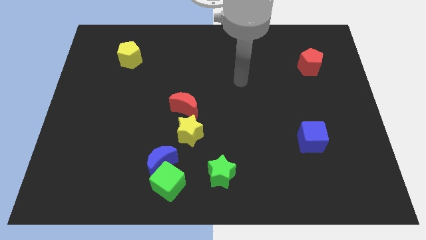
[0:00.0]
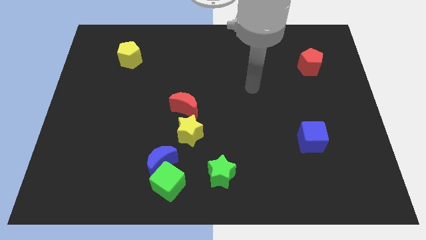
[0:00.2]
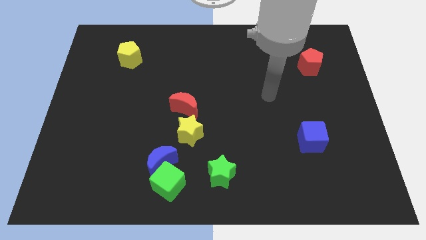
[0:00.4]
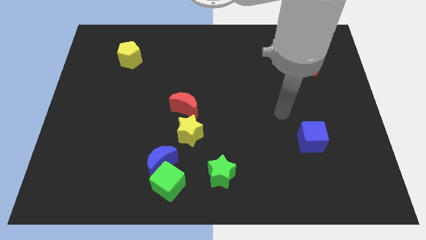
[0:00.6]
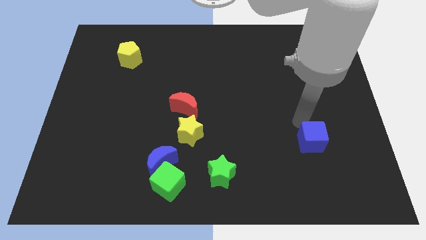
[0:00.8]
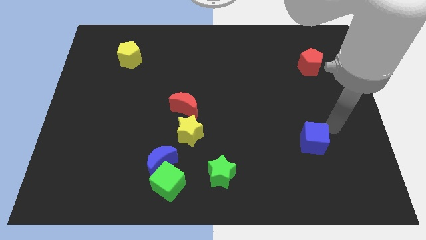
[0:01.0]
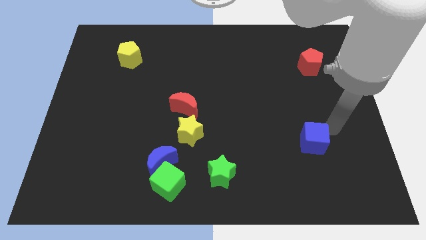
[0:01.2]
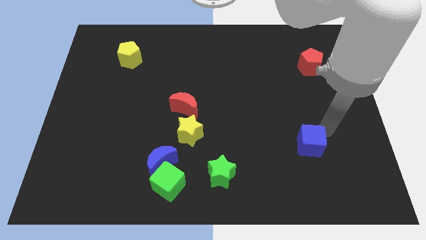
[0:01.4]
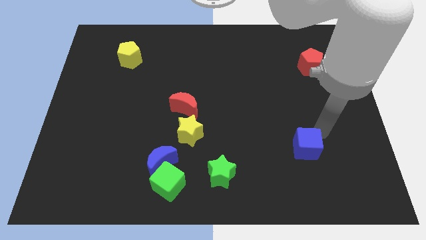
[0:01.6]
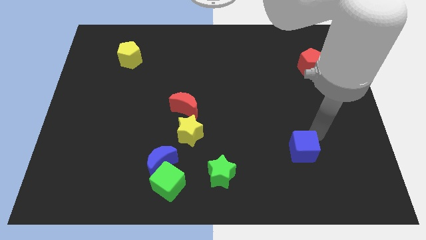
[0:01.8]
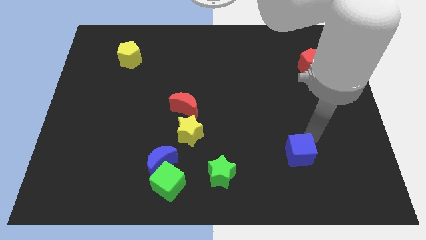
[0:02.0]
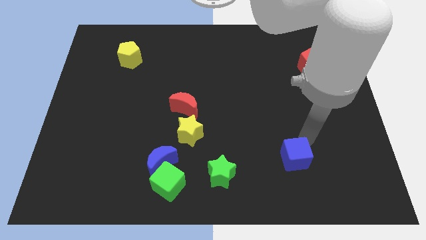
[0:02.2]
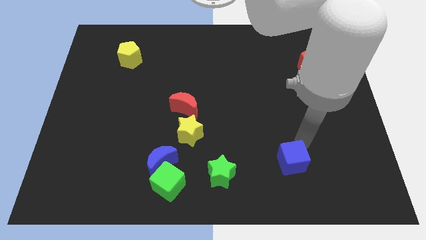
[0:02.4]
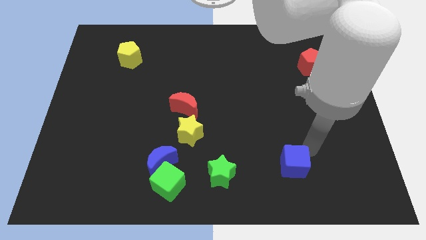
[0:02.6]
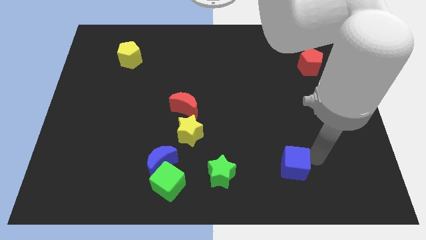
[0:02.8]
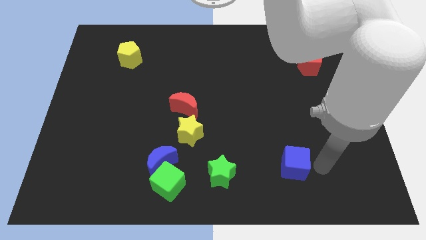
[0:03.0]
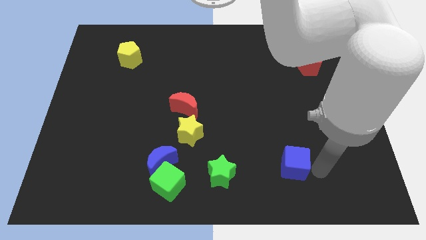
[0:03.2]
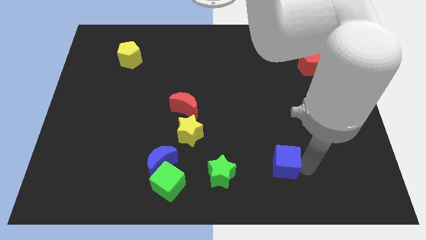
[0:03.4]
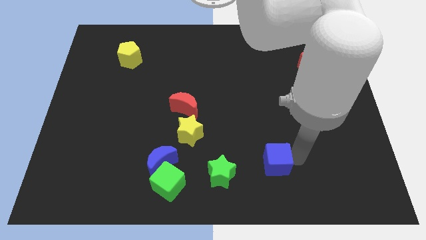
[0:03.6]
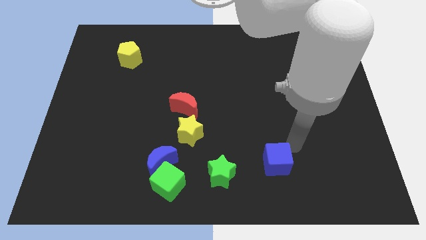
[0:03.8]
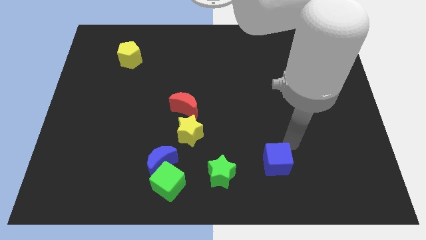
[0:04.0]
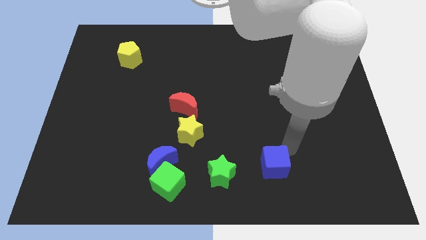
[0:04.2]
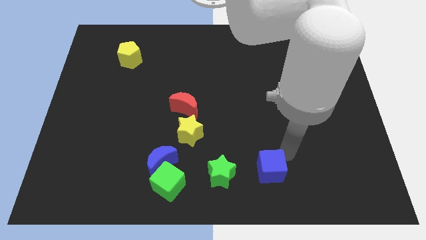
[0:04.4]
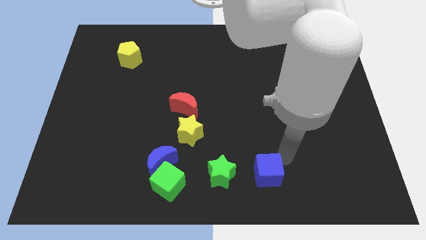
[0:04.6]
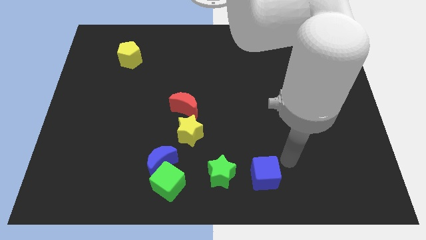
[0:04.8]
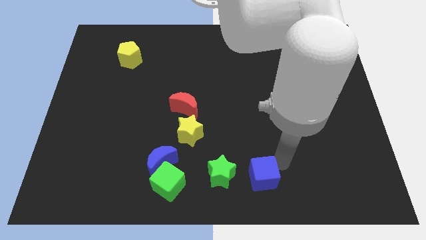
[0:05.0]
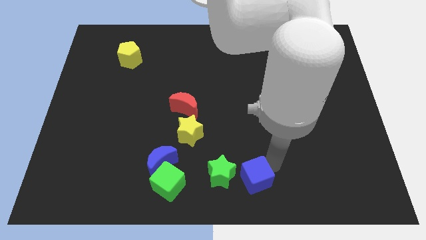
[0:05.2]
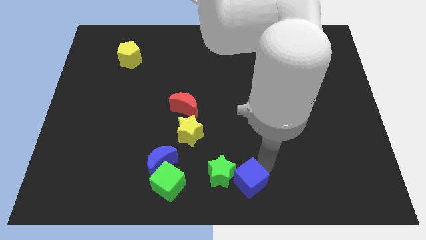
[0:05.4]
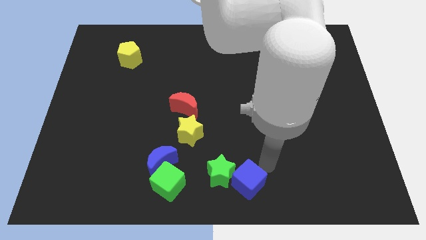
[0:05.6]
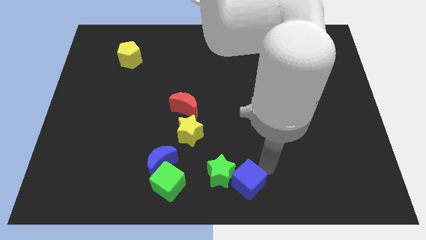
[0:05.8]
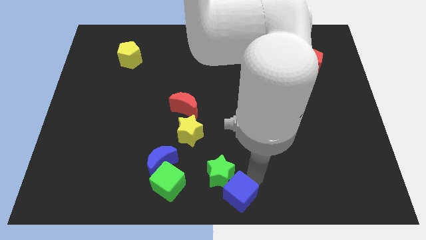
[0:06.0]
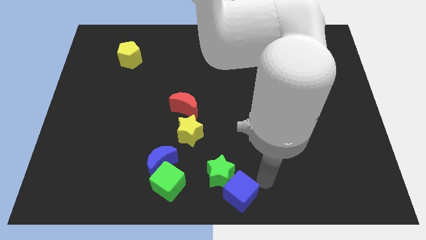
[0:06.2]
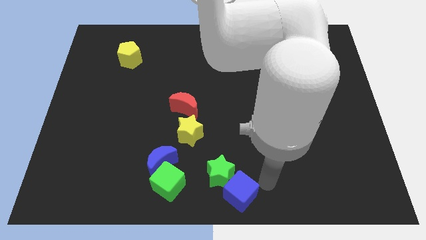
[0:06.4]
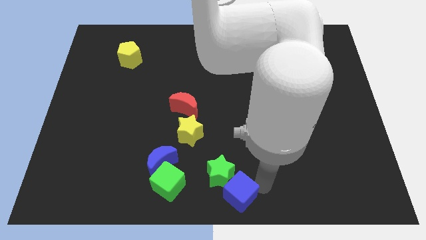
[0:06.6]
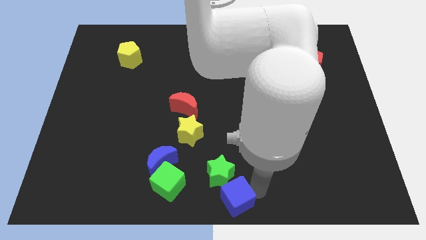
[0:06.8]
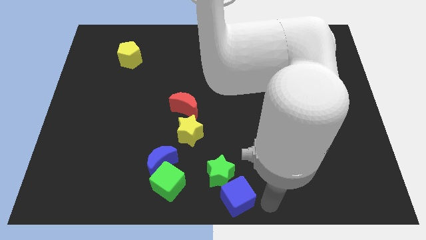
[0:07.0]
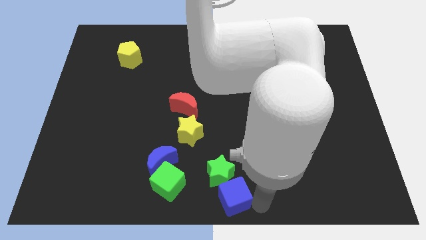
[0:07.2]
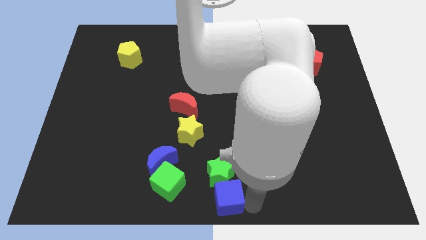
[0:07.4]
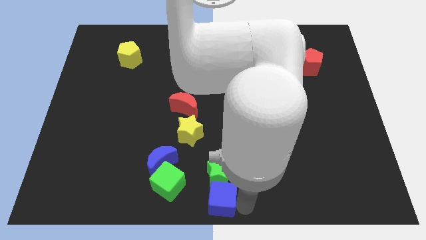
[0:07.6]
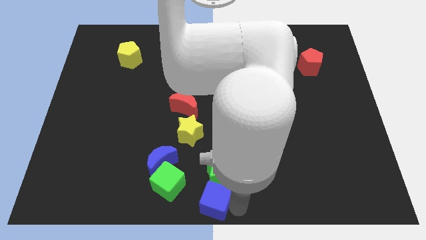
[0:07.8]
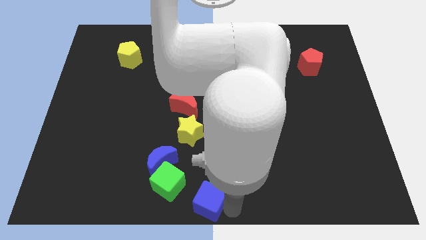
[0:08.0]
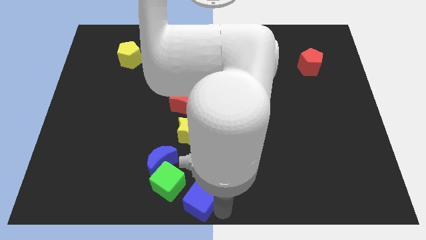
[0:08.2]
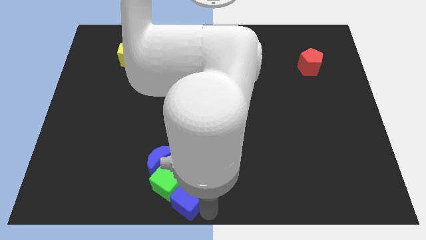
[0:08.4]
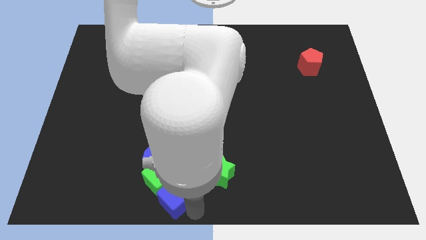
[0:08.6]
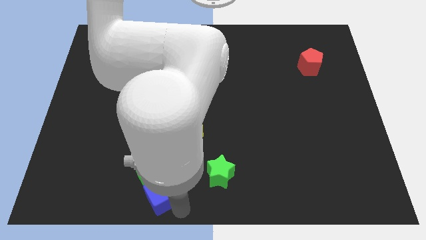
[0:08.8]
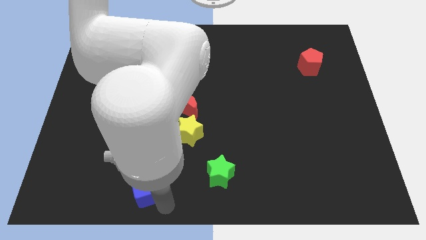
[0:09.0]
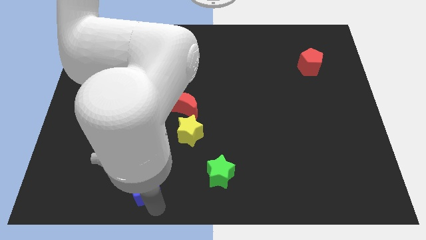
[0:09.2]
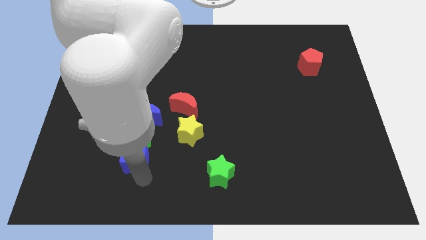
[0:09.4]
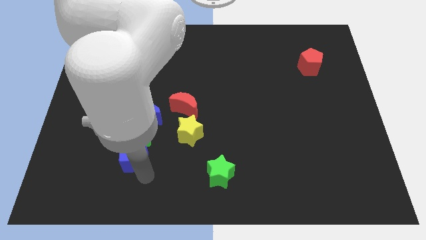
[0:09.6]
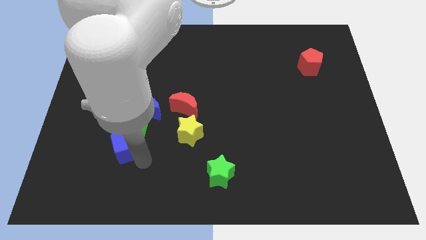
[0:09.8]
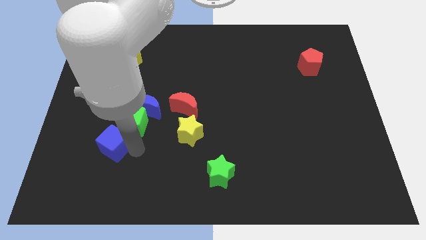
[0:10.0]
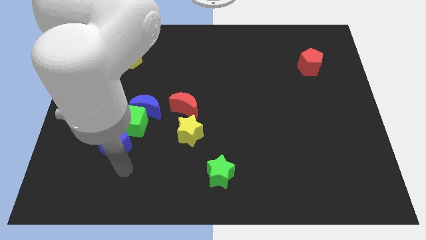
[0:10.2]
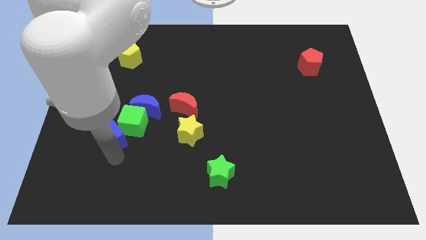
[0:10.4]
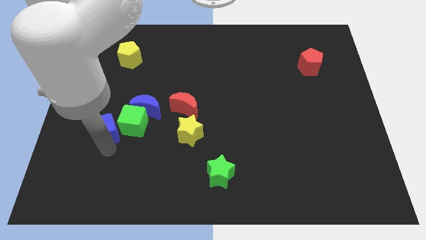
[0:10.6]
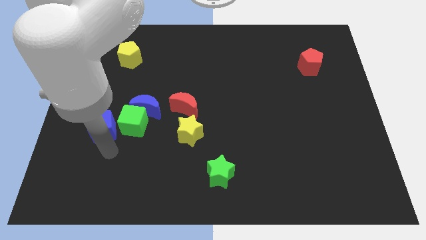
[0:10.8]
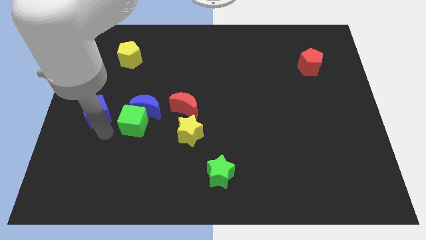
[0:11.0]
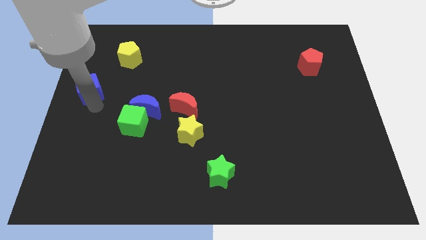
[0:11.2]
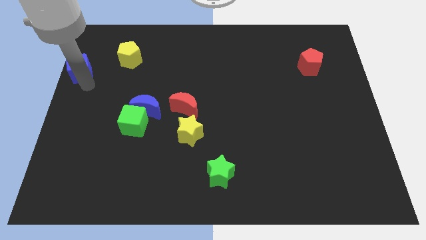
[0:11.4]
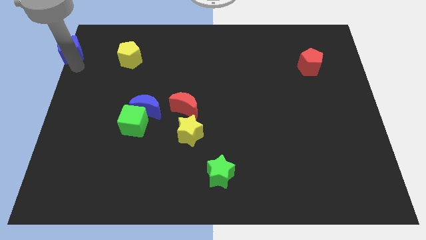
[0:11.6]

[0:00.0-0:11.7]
move the blue cube to the top left
